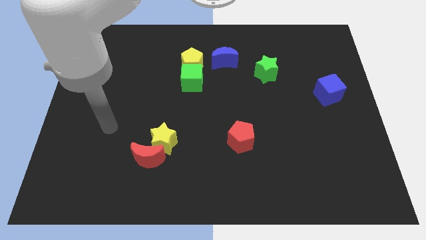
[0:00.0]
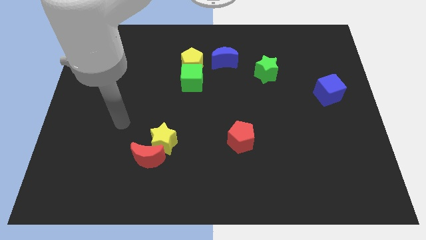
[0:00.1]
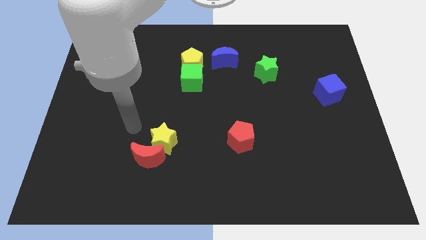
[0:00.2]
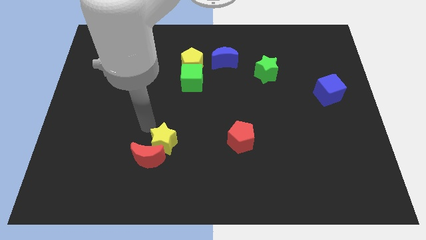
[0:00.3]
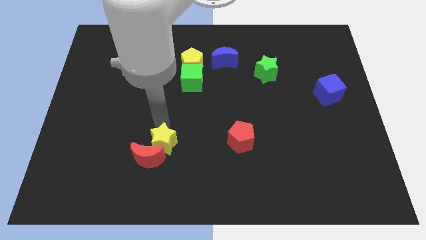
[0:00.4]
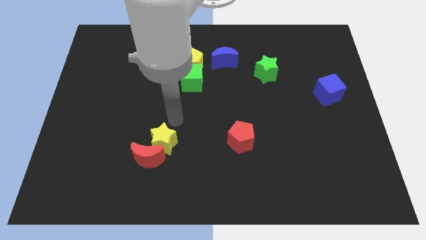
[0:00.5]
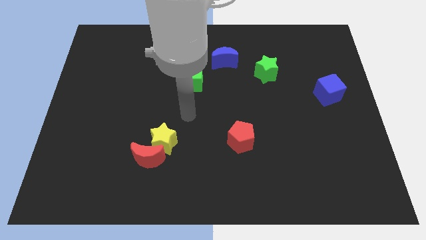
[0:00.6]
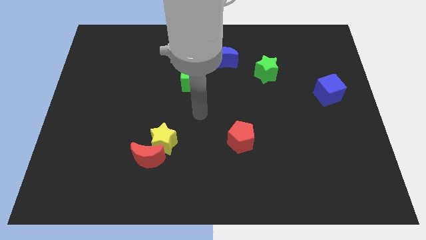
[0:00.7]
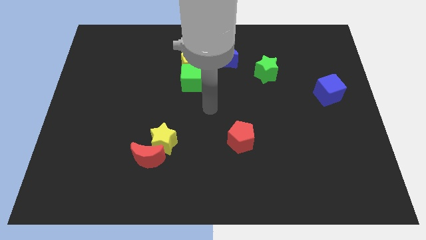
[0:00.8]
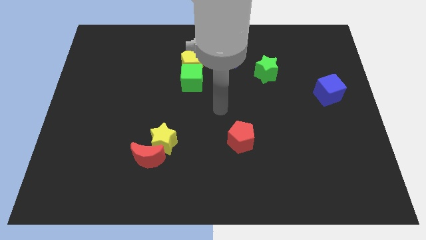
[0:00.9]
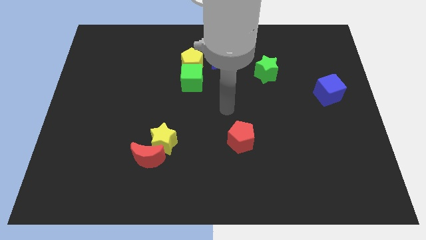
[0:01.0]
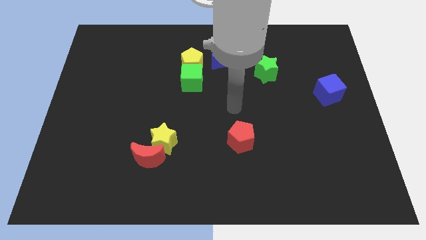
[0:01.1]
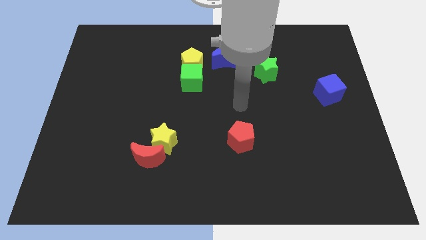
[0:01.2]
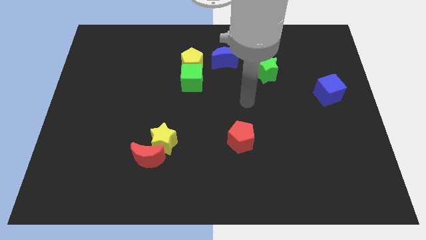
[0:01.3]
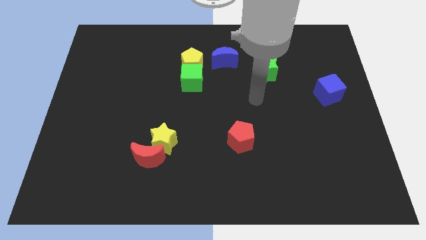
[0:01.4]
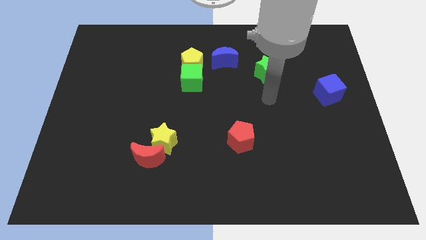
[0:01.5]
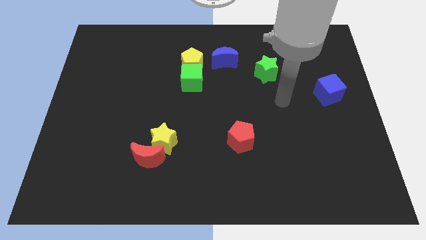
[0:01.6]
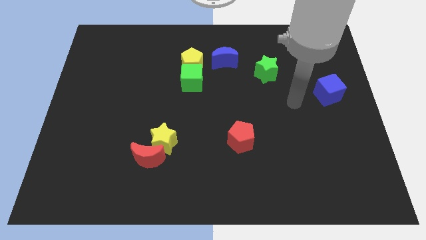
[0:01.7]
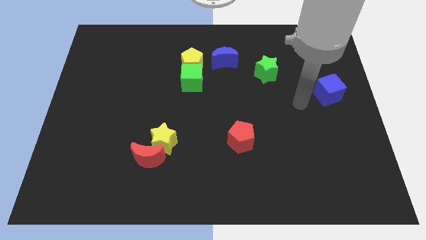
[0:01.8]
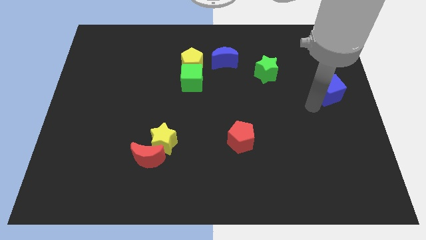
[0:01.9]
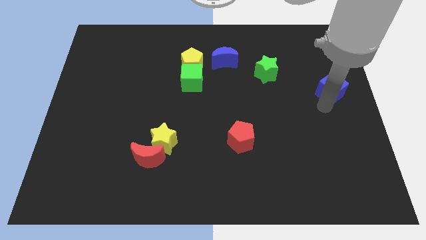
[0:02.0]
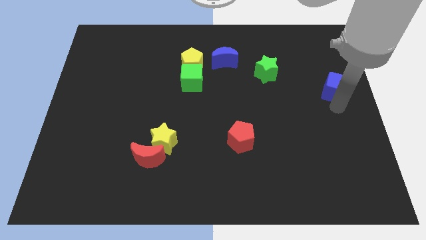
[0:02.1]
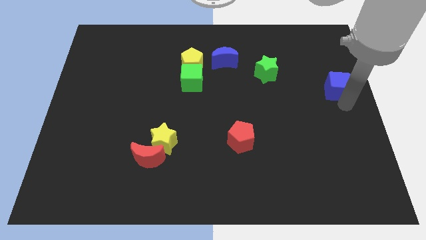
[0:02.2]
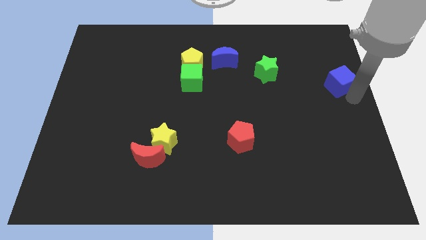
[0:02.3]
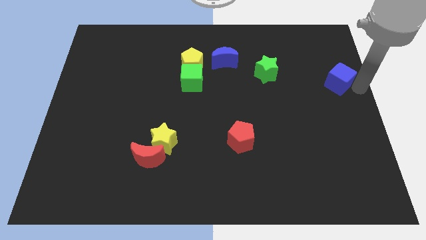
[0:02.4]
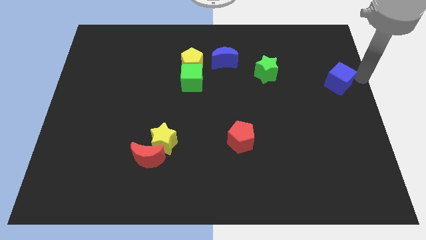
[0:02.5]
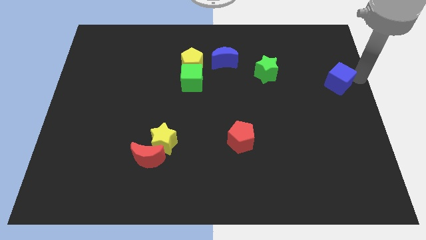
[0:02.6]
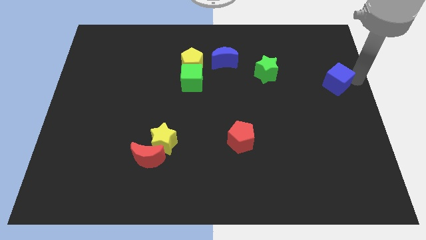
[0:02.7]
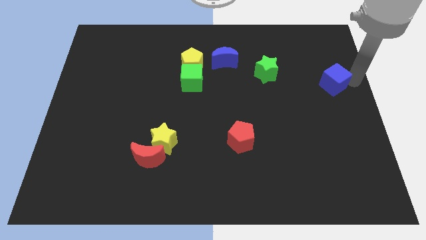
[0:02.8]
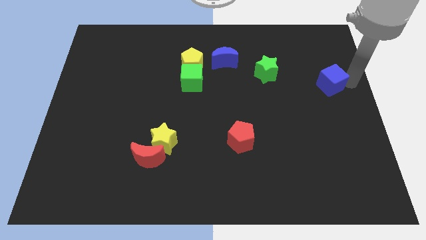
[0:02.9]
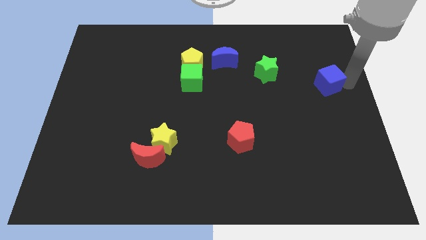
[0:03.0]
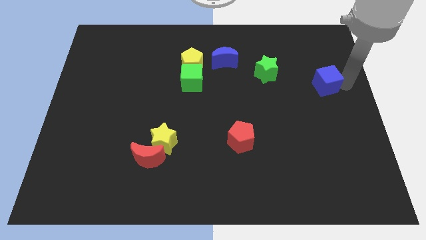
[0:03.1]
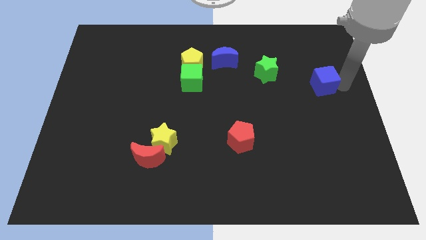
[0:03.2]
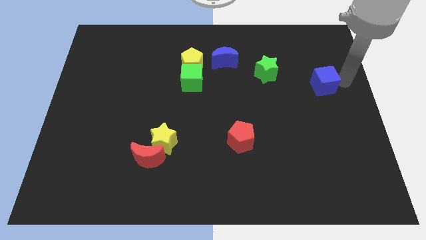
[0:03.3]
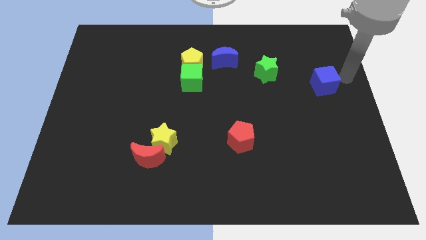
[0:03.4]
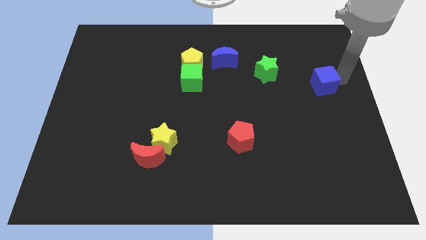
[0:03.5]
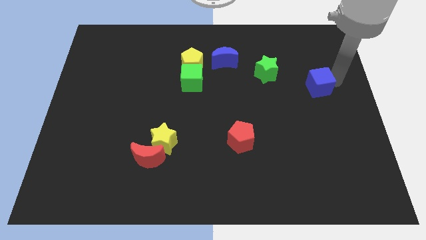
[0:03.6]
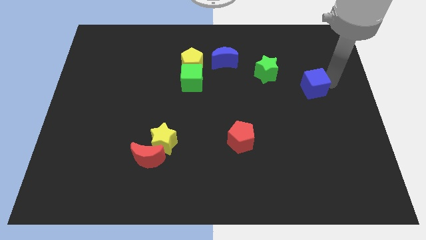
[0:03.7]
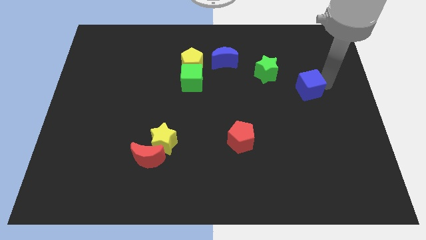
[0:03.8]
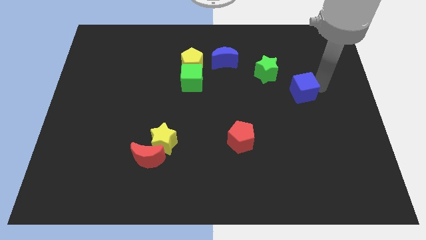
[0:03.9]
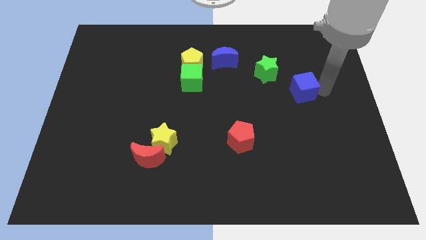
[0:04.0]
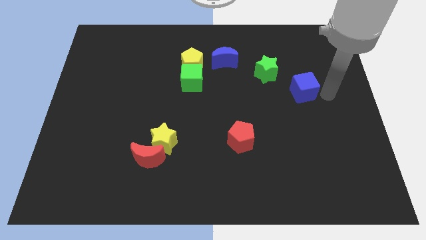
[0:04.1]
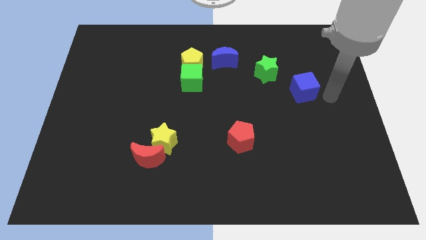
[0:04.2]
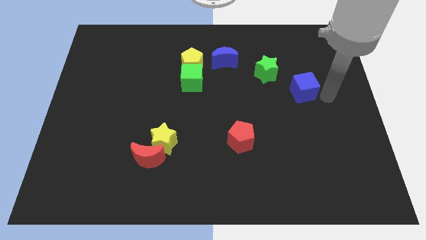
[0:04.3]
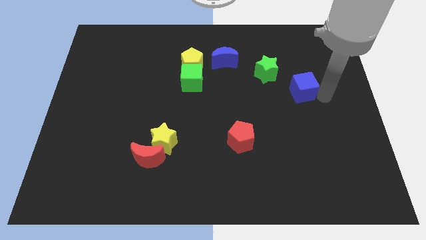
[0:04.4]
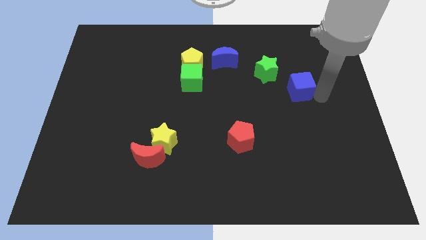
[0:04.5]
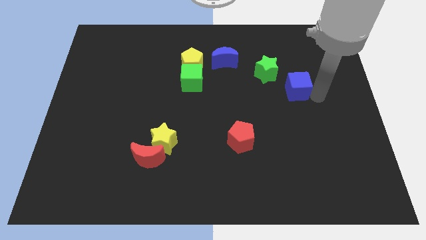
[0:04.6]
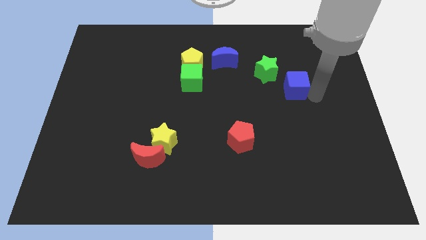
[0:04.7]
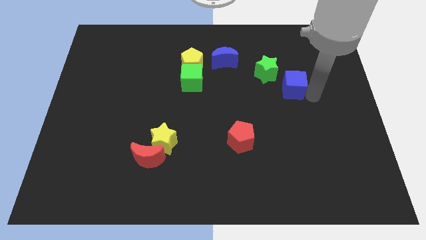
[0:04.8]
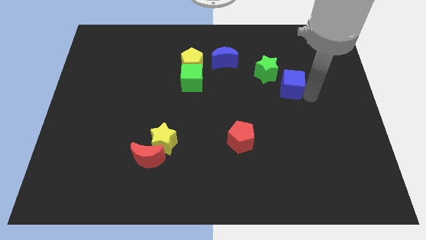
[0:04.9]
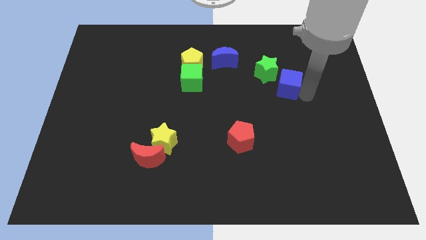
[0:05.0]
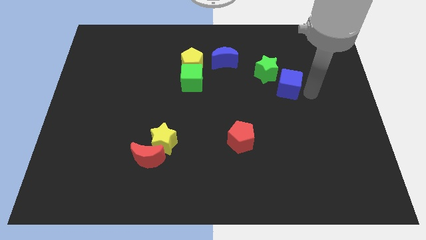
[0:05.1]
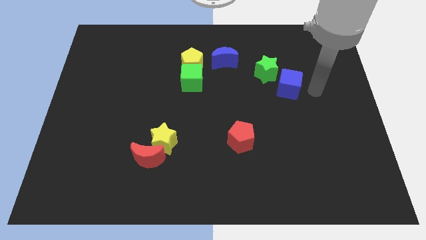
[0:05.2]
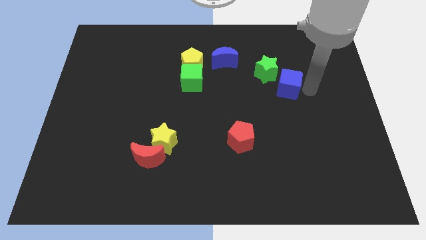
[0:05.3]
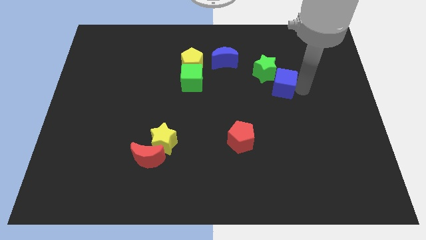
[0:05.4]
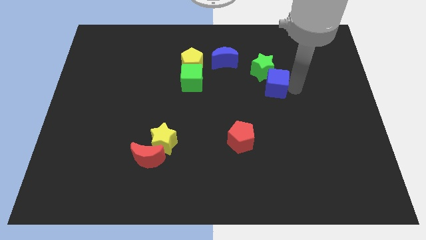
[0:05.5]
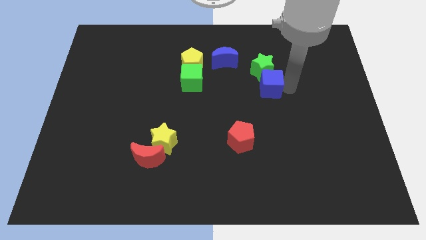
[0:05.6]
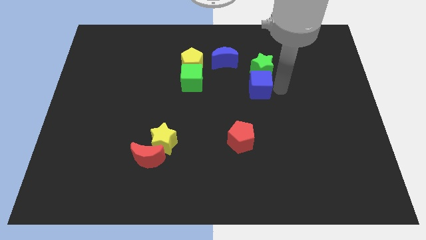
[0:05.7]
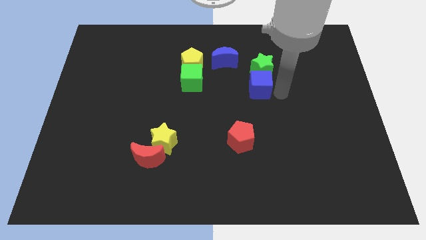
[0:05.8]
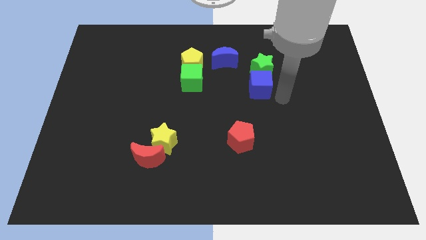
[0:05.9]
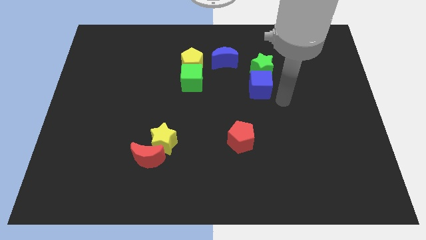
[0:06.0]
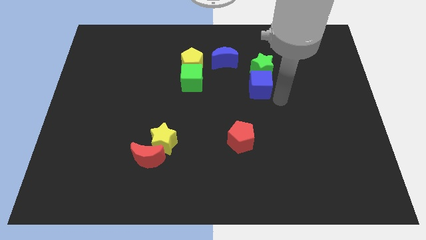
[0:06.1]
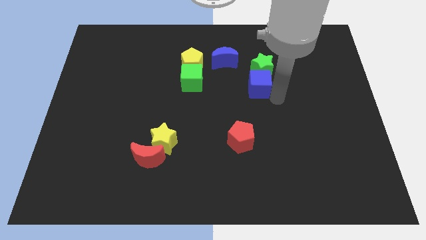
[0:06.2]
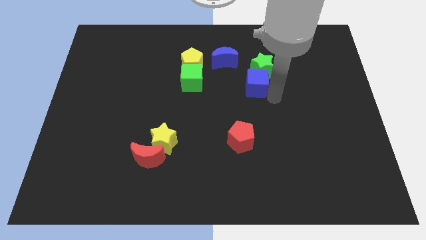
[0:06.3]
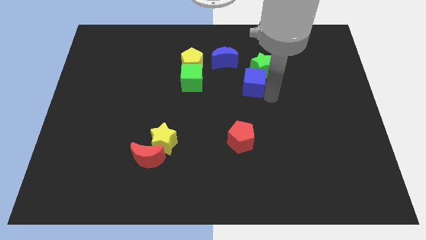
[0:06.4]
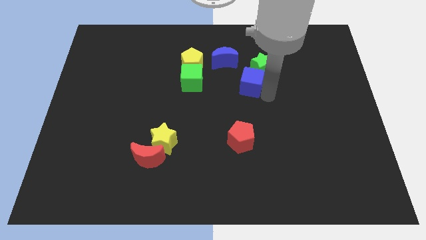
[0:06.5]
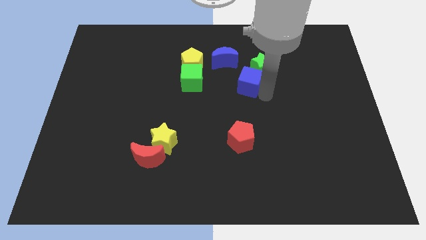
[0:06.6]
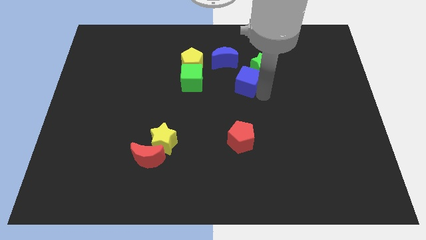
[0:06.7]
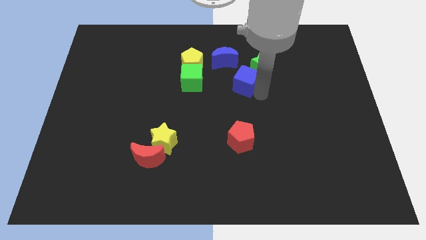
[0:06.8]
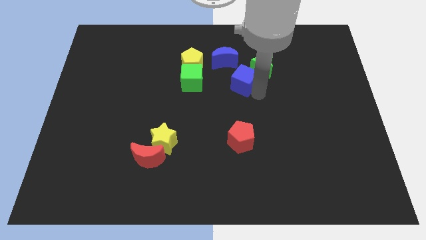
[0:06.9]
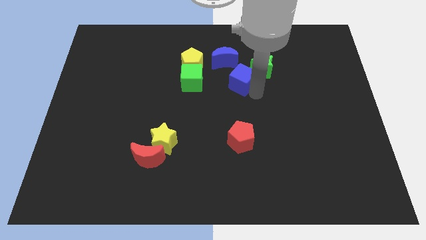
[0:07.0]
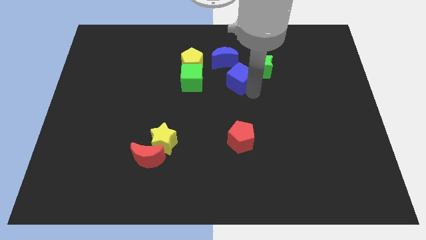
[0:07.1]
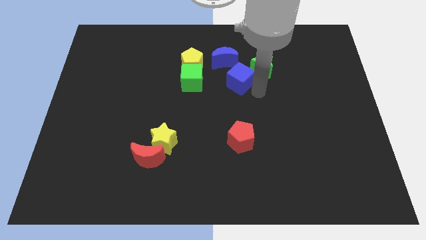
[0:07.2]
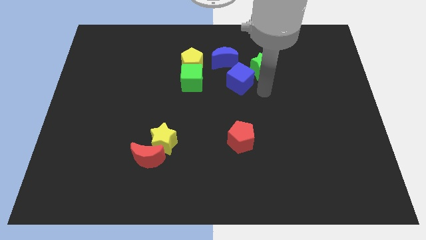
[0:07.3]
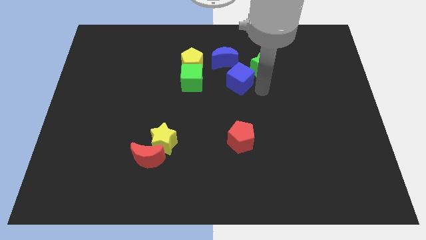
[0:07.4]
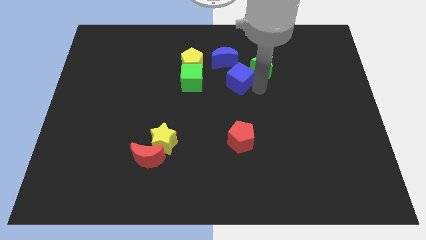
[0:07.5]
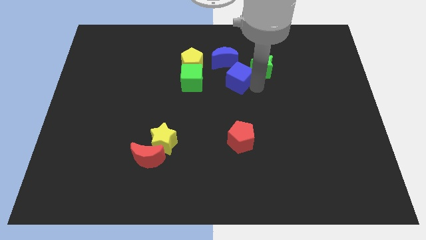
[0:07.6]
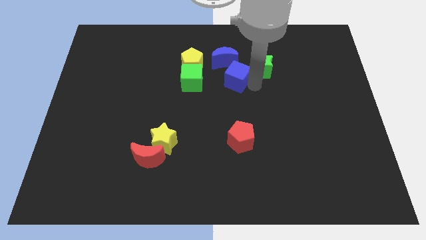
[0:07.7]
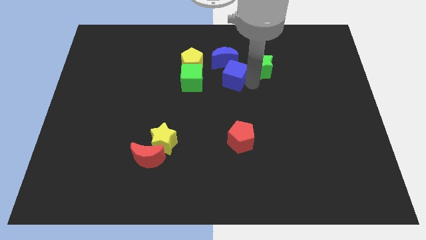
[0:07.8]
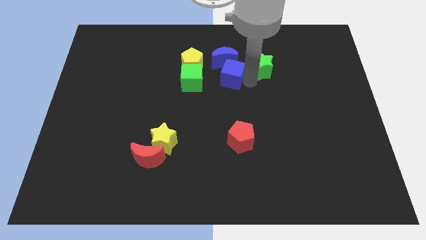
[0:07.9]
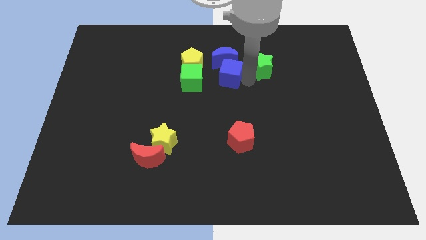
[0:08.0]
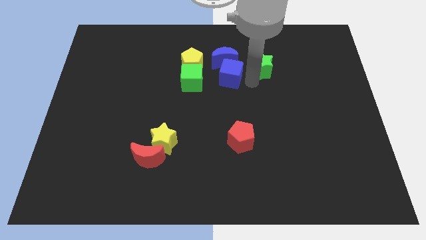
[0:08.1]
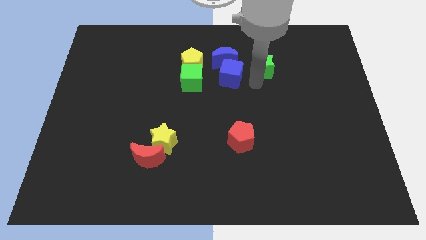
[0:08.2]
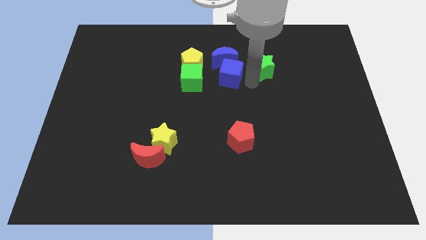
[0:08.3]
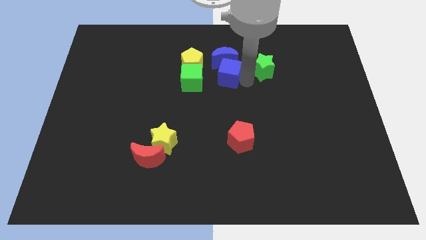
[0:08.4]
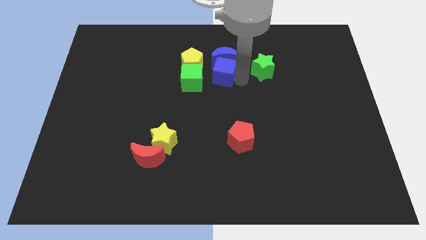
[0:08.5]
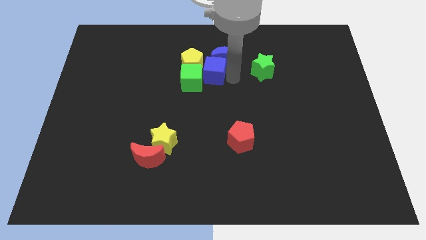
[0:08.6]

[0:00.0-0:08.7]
put the blue cube close to the yellow pentagon
